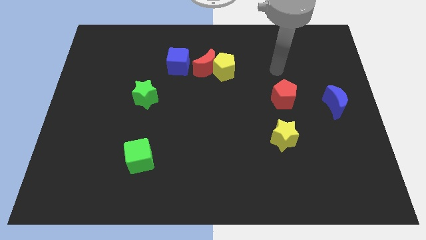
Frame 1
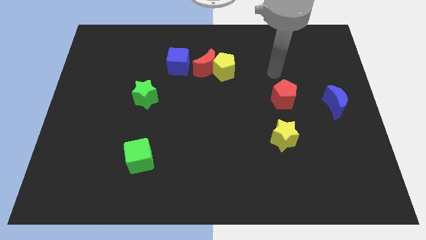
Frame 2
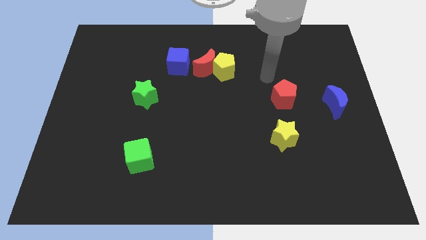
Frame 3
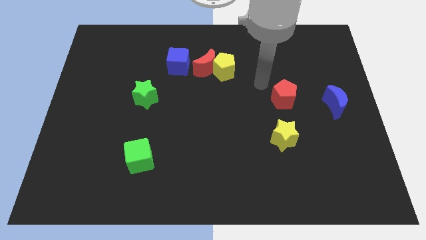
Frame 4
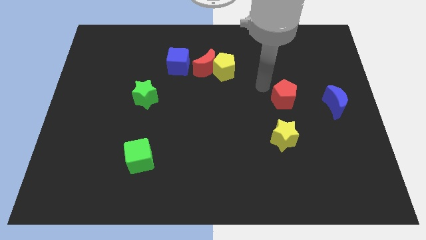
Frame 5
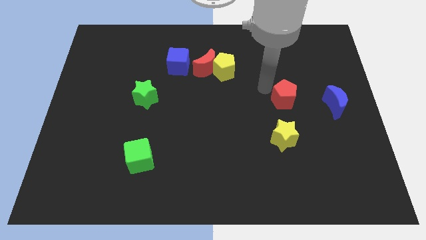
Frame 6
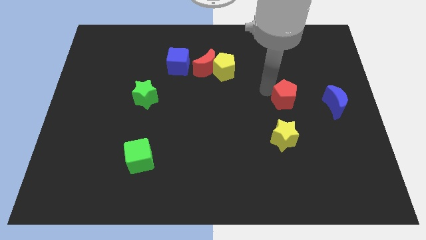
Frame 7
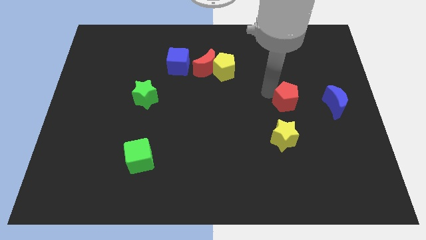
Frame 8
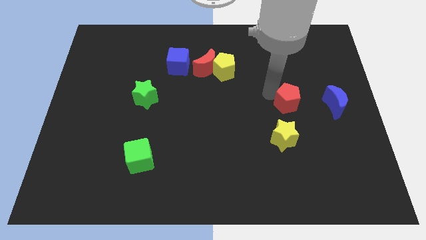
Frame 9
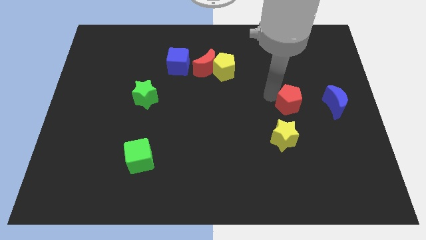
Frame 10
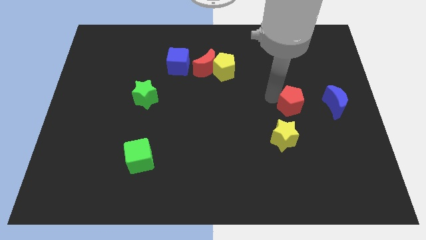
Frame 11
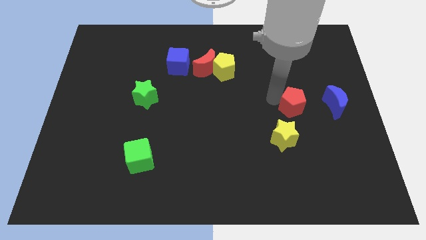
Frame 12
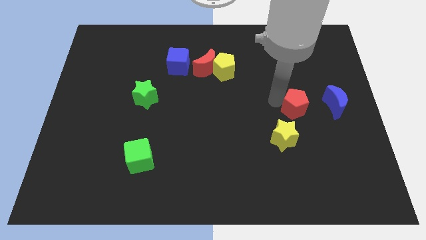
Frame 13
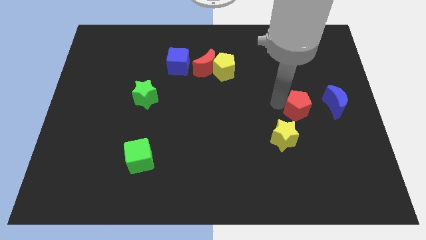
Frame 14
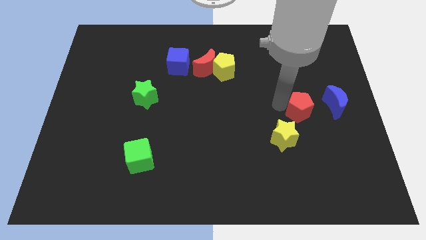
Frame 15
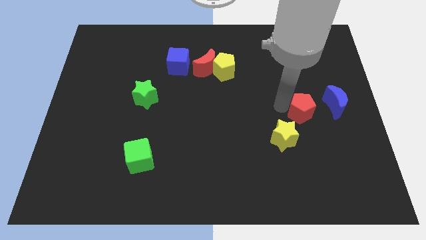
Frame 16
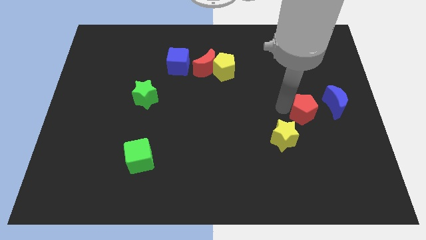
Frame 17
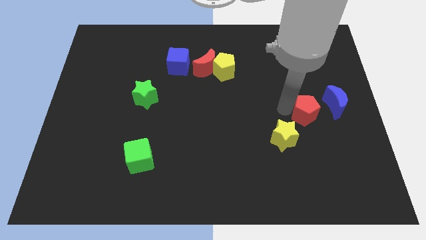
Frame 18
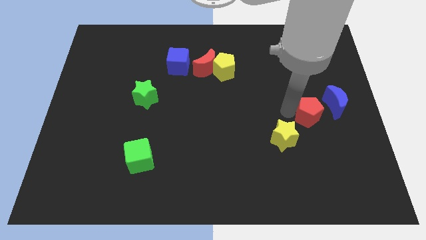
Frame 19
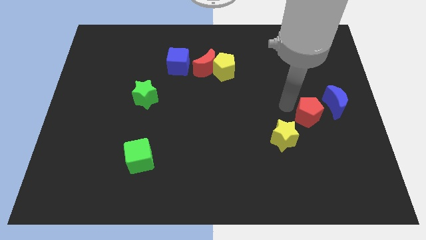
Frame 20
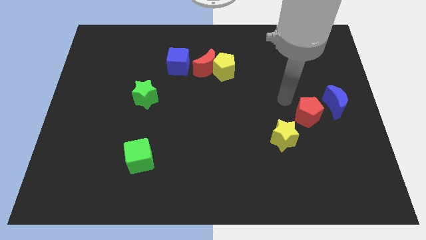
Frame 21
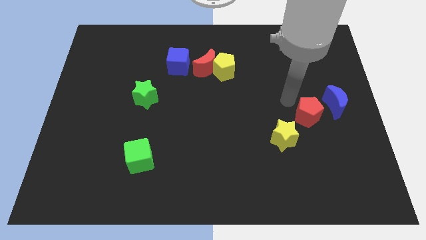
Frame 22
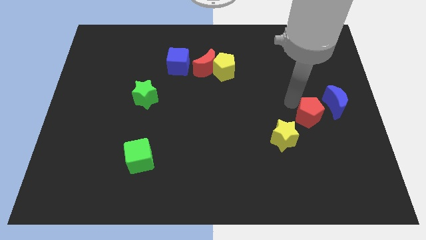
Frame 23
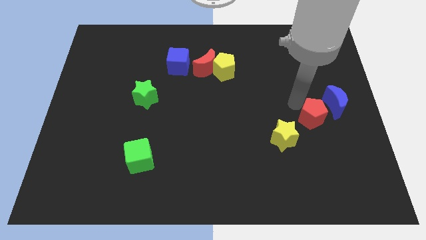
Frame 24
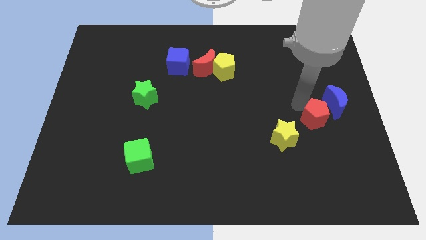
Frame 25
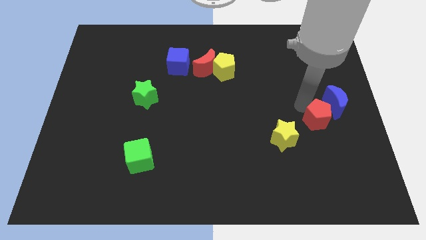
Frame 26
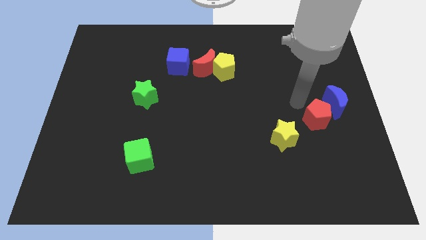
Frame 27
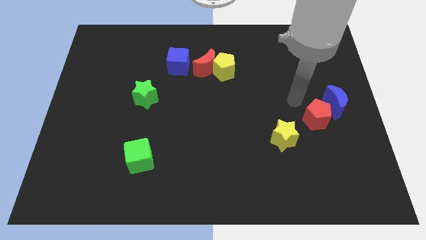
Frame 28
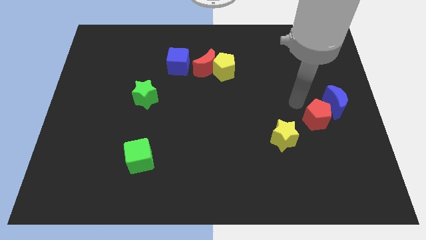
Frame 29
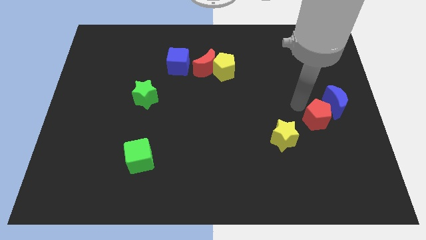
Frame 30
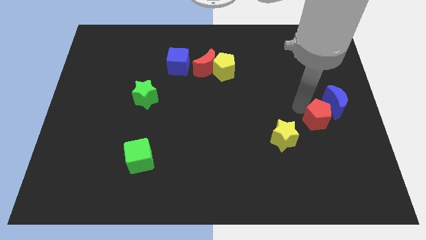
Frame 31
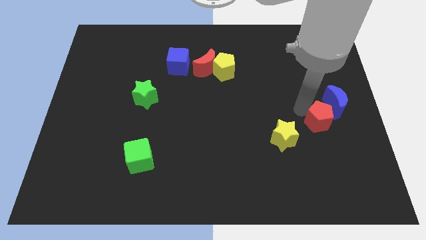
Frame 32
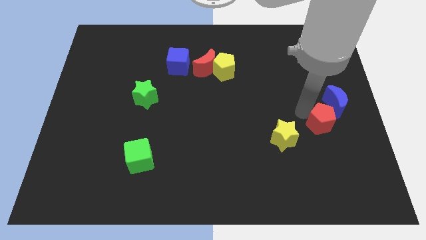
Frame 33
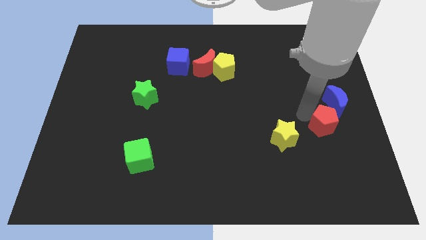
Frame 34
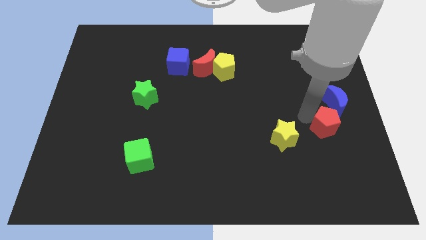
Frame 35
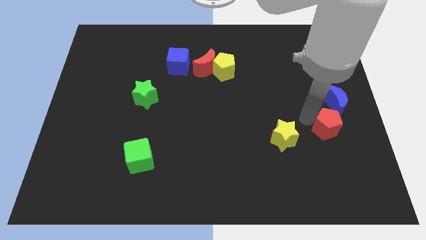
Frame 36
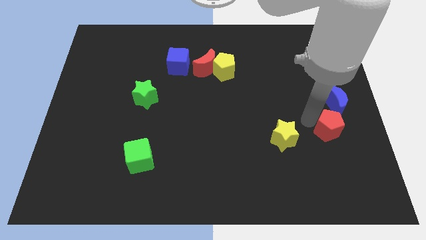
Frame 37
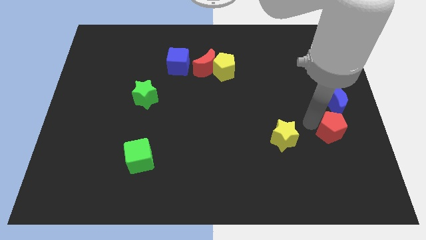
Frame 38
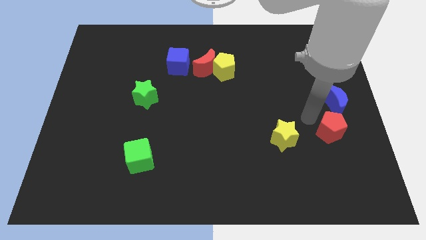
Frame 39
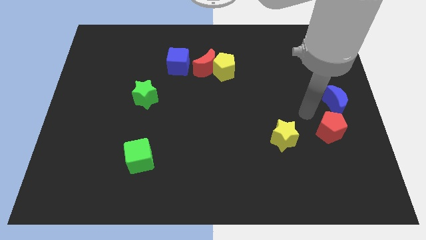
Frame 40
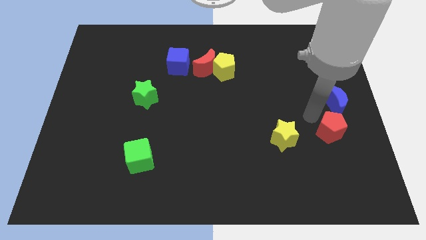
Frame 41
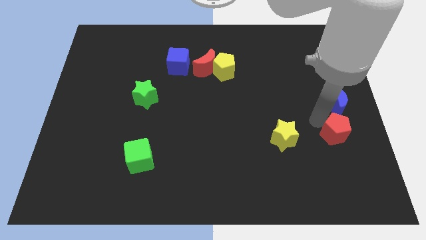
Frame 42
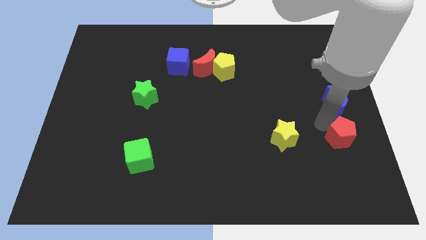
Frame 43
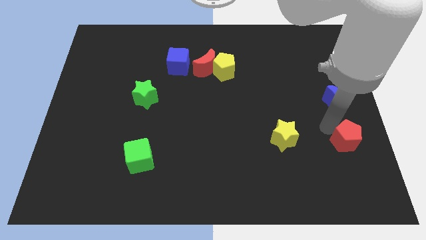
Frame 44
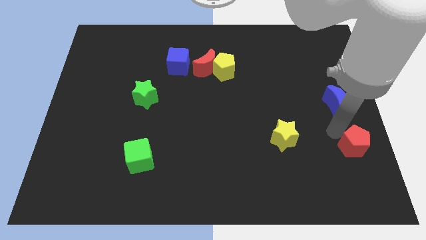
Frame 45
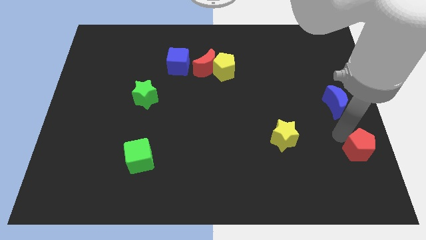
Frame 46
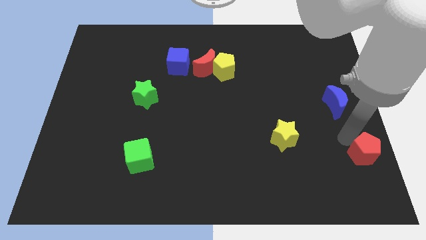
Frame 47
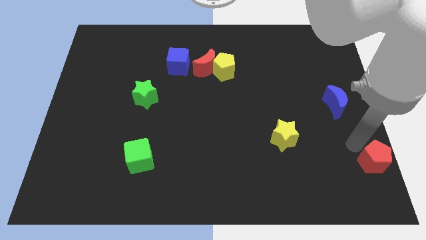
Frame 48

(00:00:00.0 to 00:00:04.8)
put the red pentagon to the bottom right

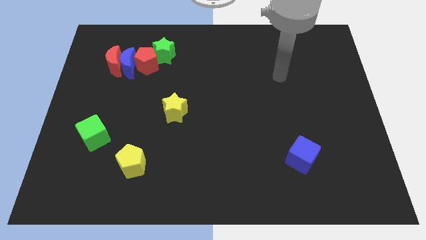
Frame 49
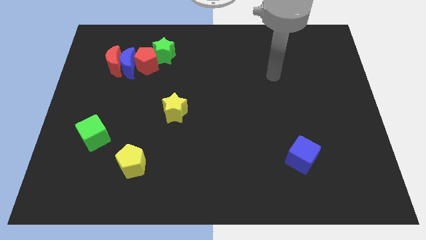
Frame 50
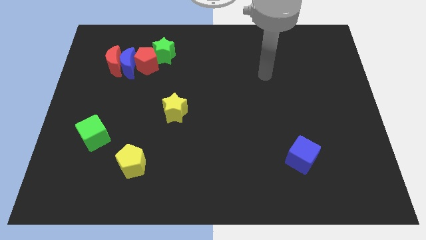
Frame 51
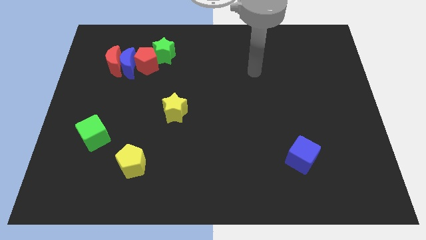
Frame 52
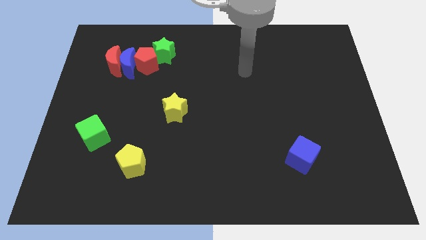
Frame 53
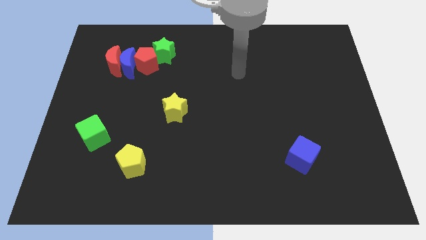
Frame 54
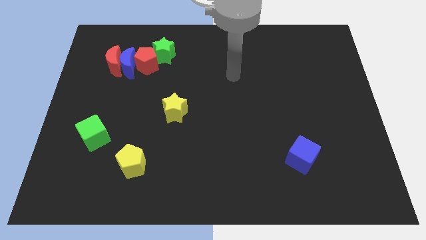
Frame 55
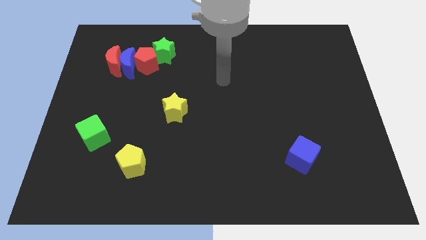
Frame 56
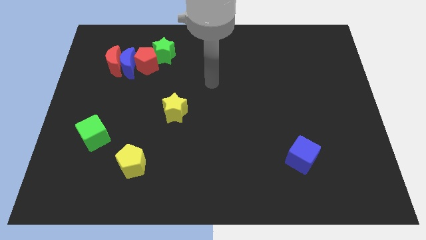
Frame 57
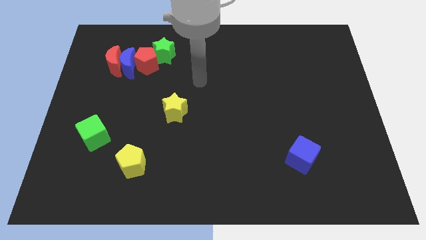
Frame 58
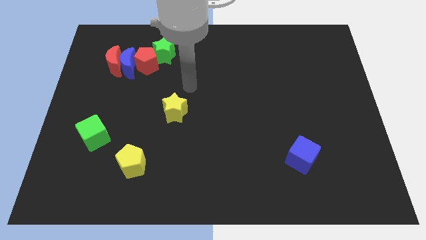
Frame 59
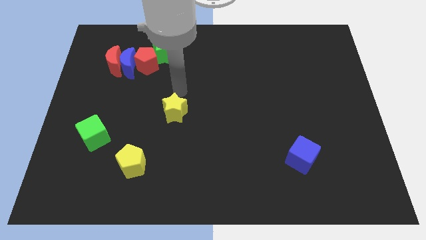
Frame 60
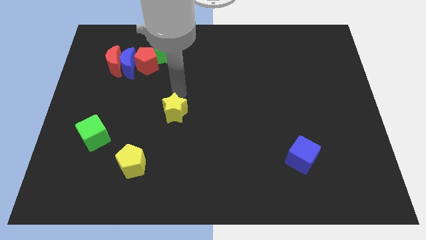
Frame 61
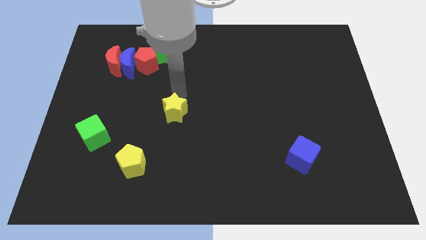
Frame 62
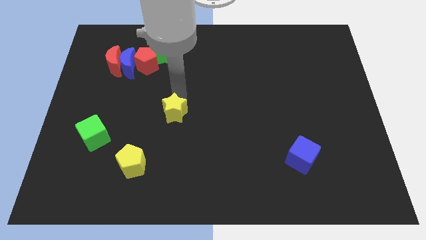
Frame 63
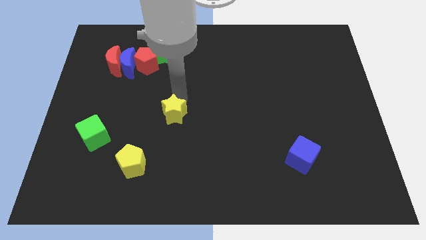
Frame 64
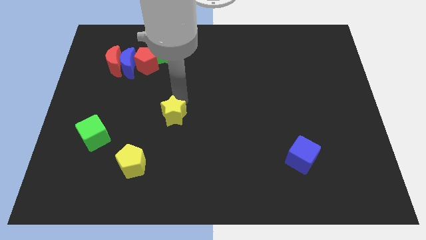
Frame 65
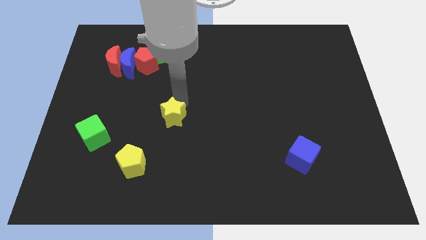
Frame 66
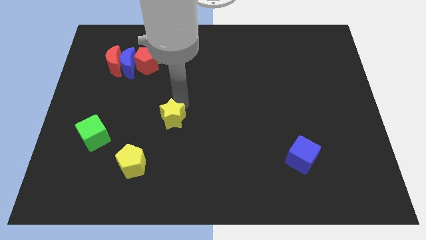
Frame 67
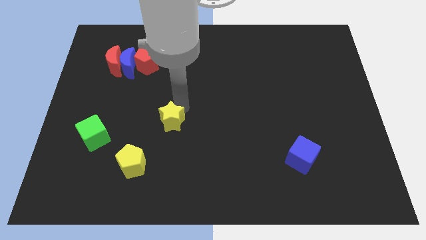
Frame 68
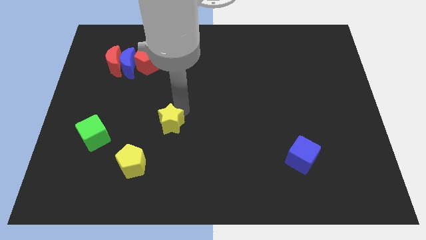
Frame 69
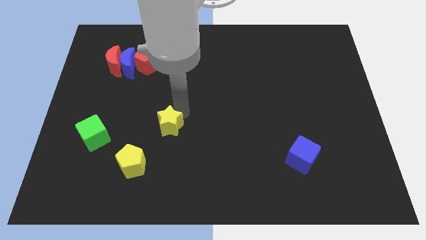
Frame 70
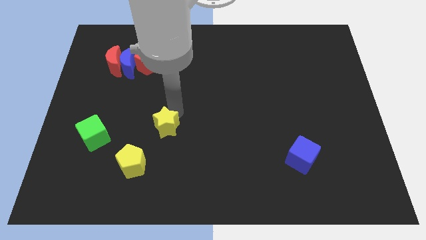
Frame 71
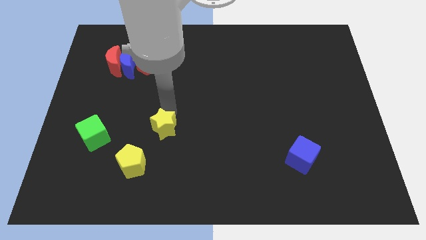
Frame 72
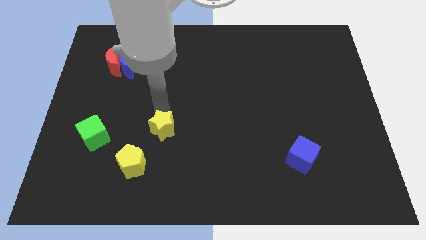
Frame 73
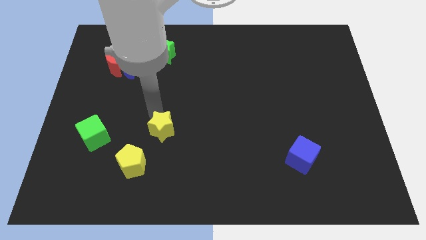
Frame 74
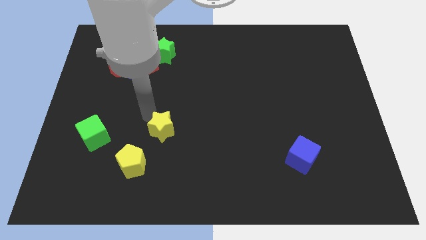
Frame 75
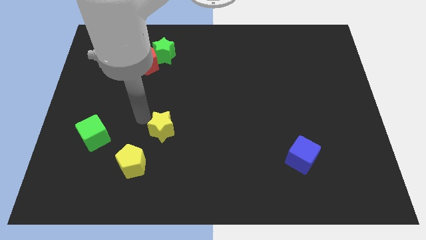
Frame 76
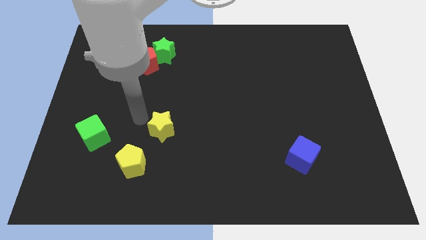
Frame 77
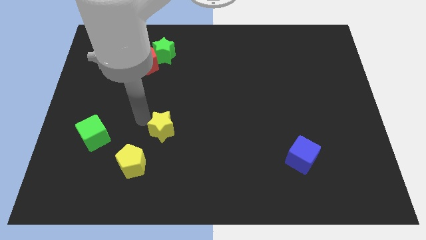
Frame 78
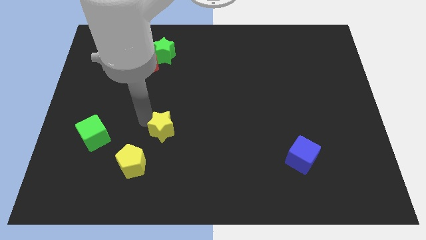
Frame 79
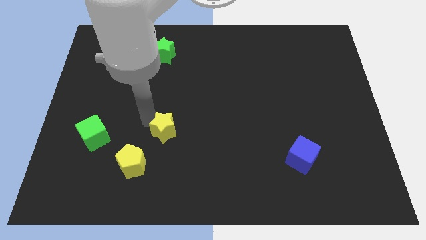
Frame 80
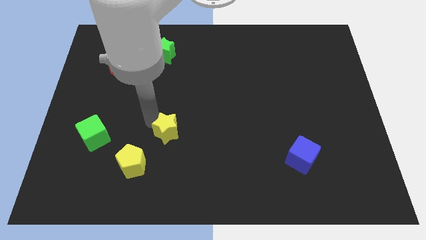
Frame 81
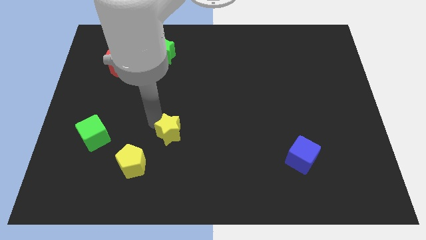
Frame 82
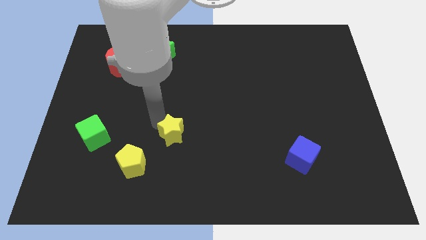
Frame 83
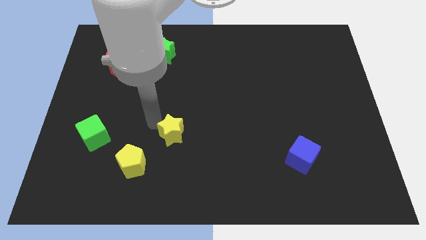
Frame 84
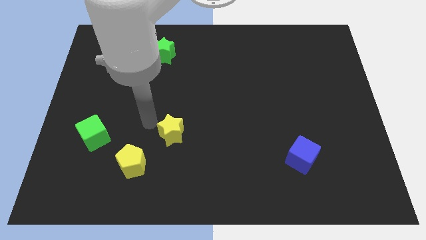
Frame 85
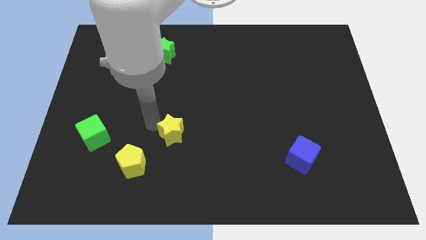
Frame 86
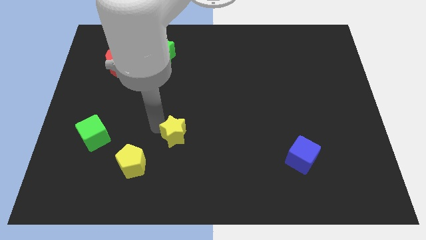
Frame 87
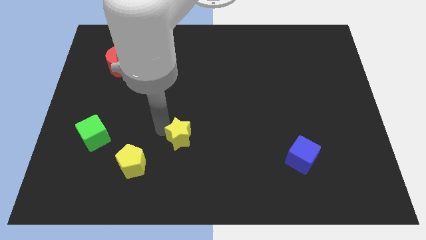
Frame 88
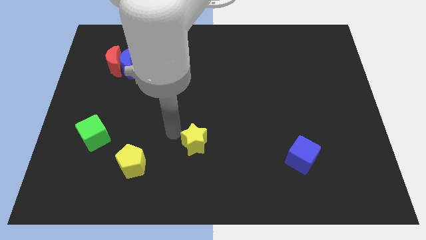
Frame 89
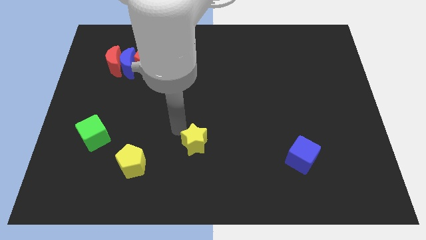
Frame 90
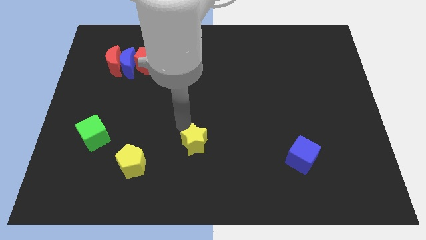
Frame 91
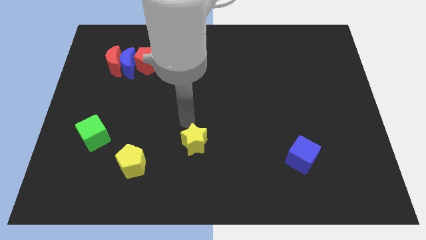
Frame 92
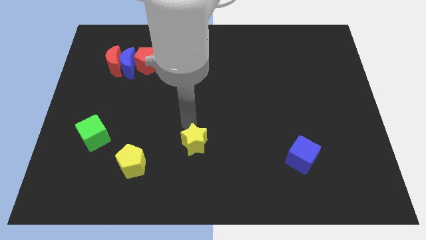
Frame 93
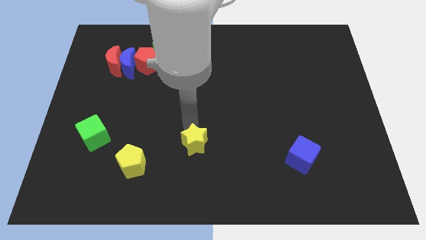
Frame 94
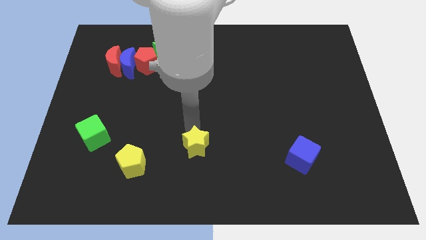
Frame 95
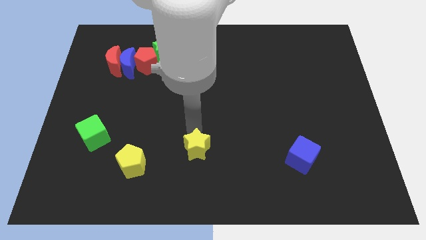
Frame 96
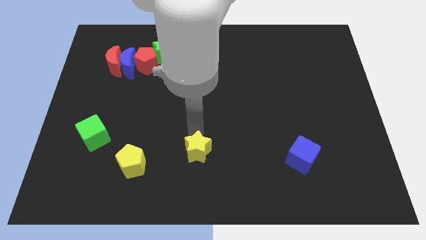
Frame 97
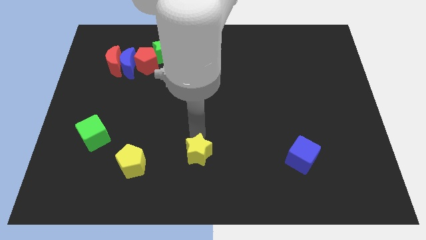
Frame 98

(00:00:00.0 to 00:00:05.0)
slide the yellow star to the bottom
